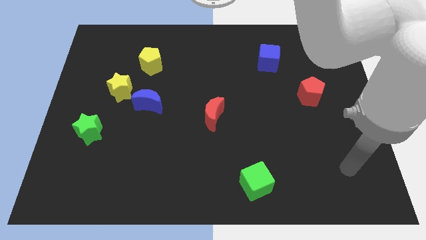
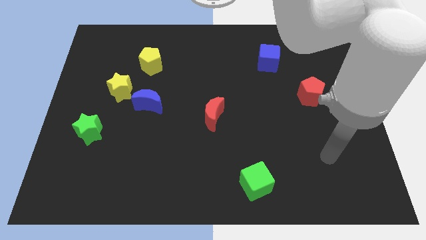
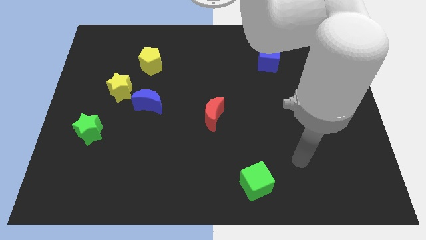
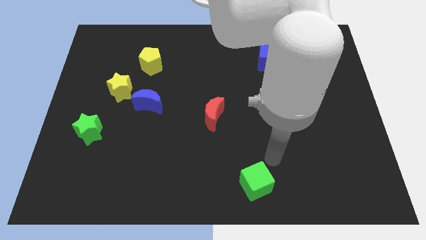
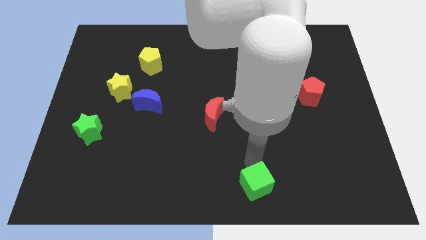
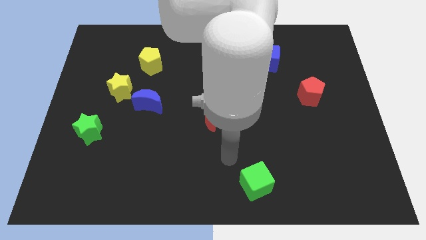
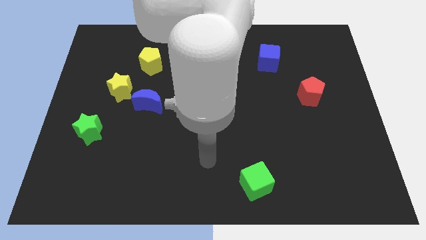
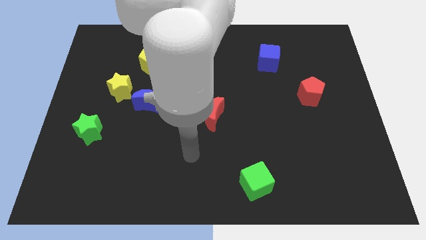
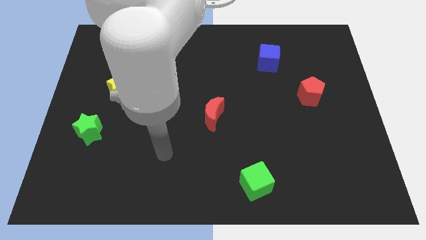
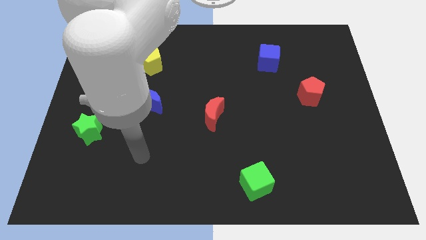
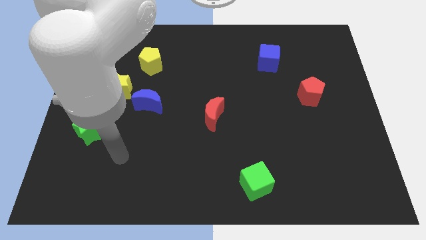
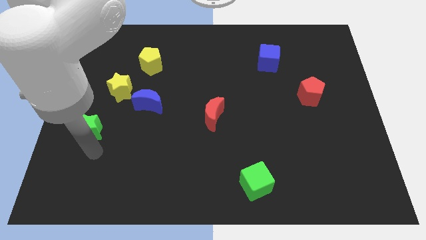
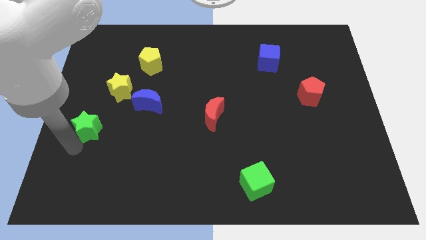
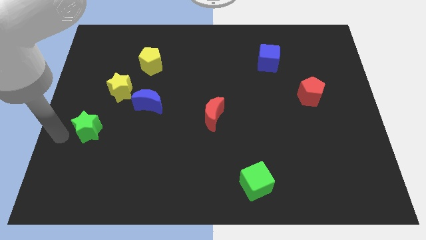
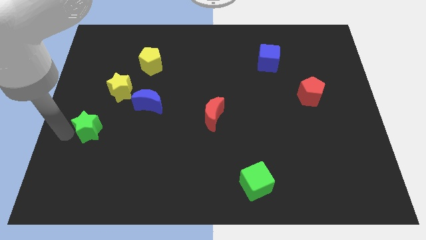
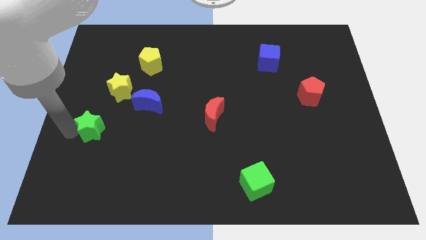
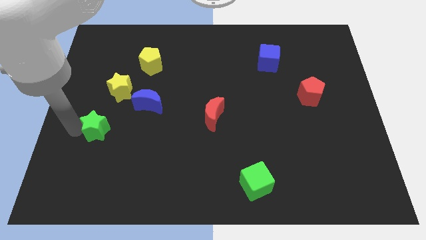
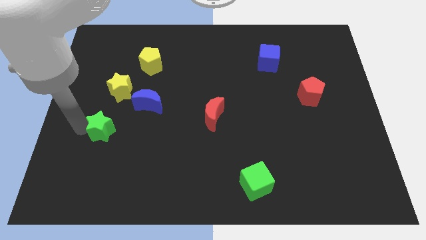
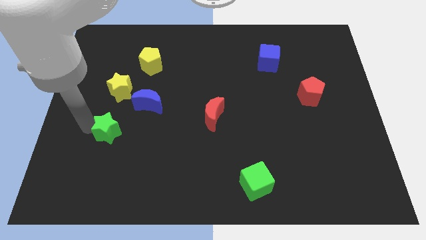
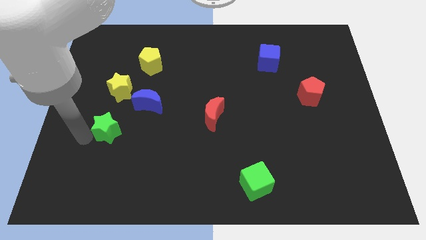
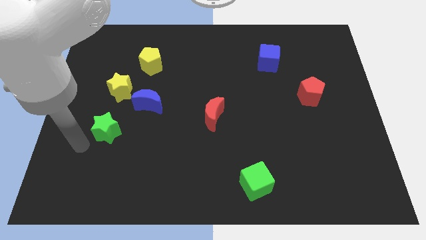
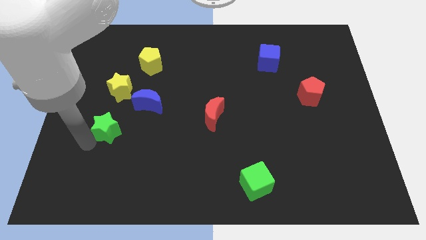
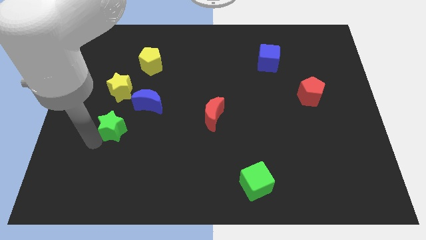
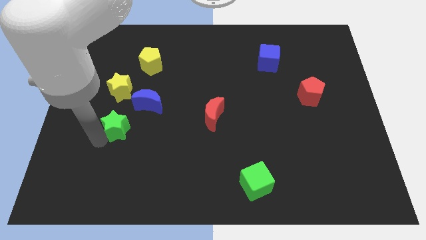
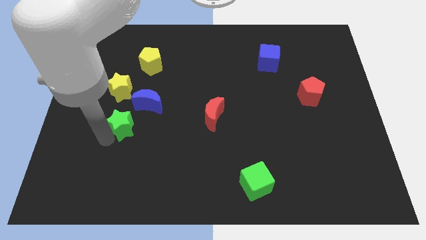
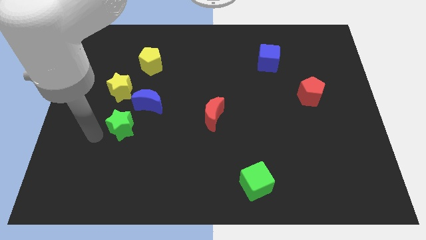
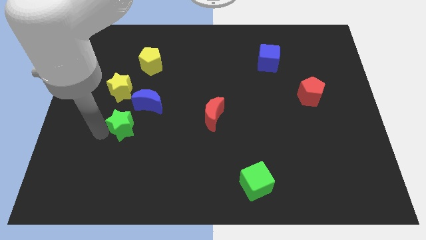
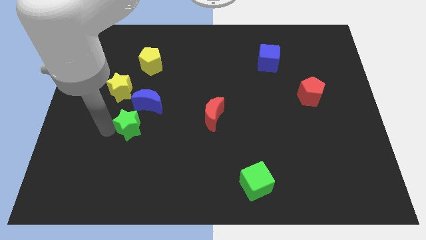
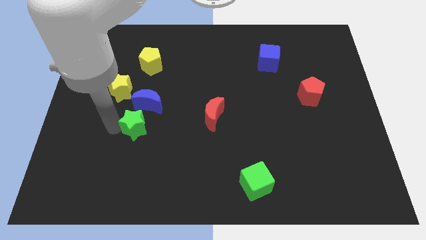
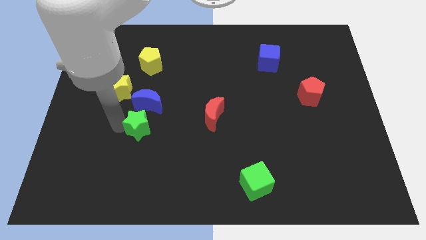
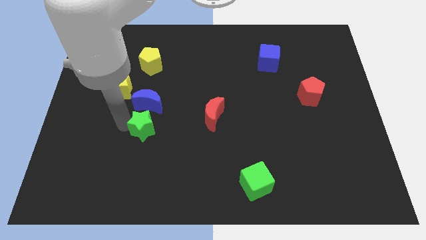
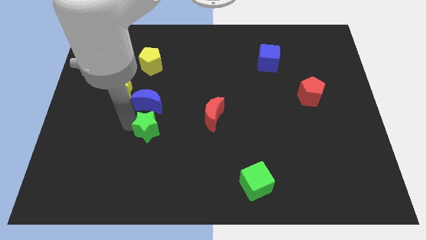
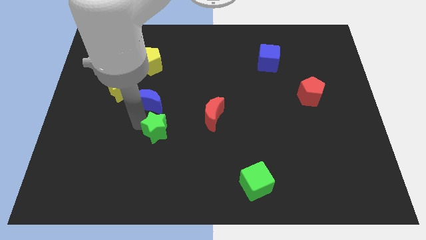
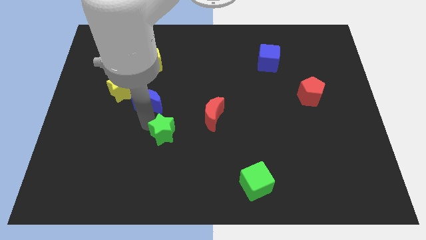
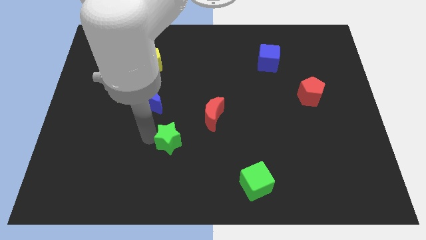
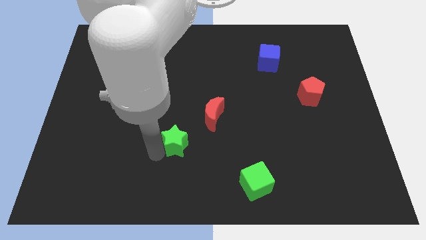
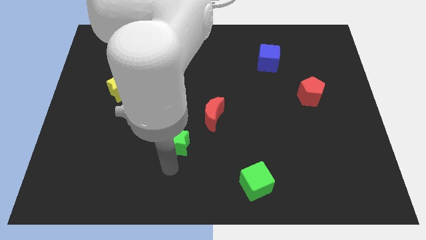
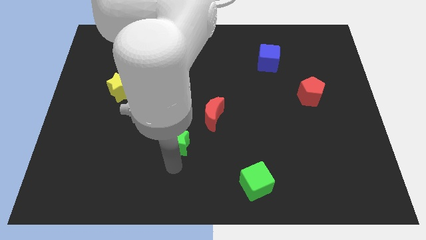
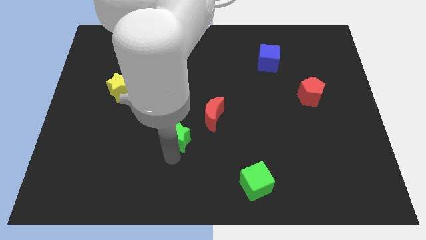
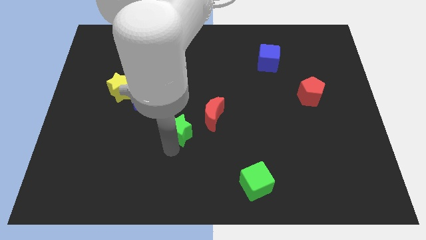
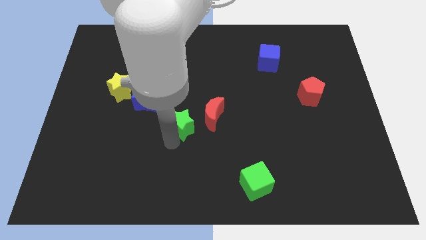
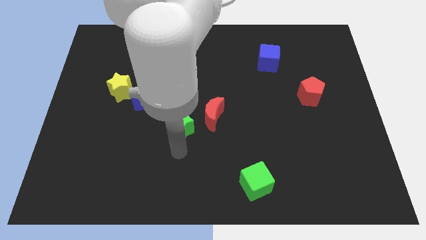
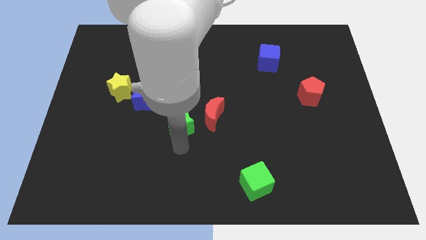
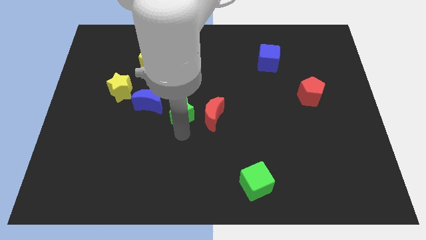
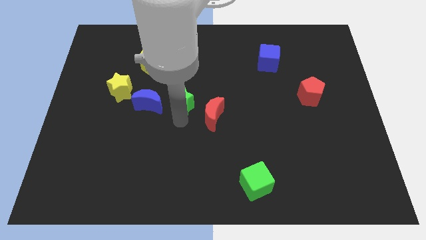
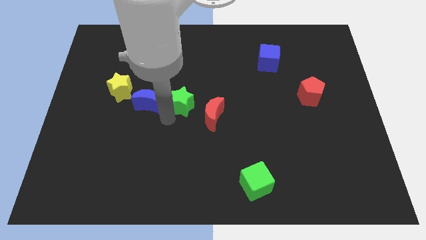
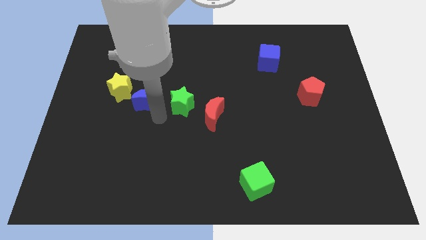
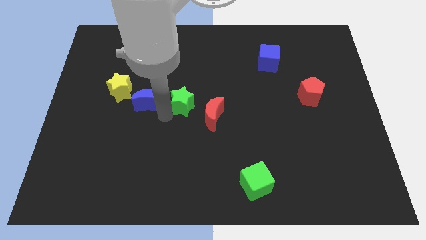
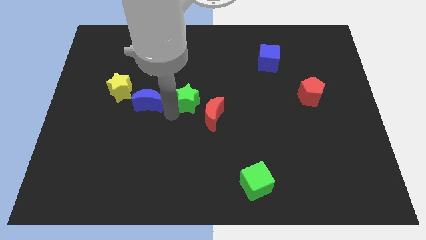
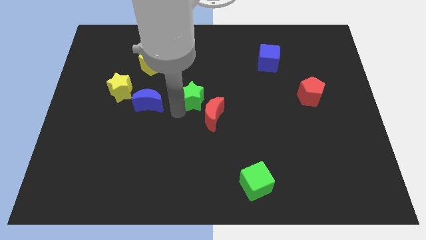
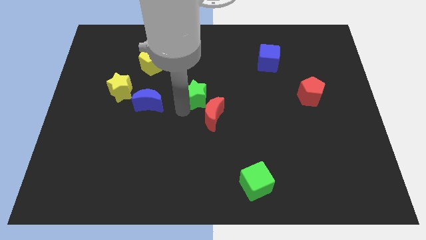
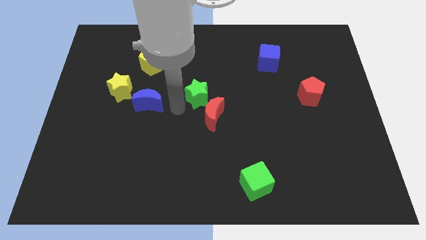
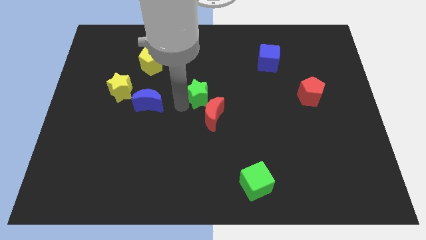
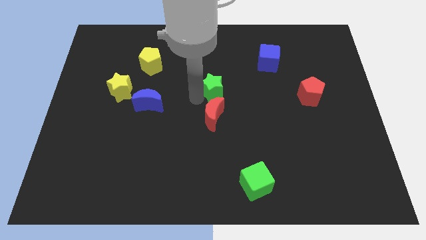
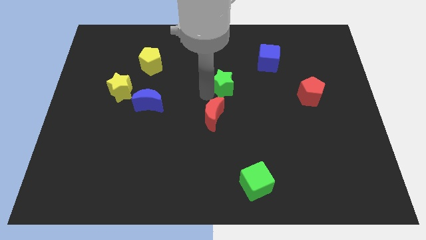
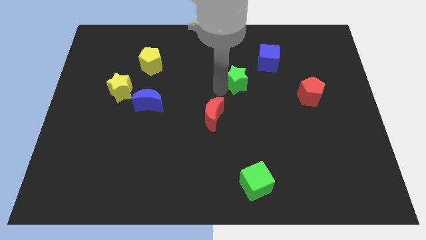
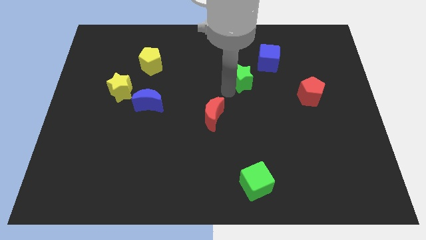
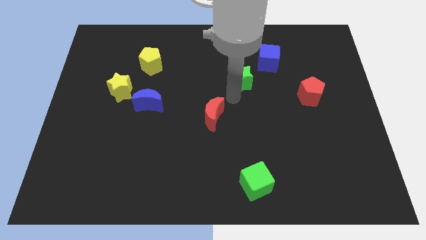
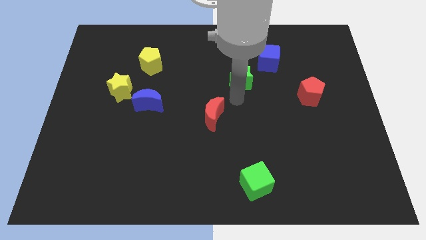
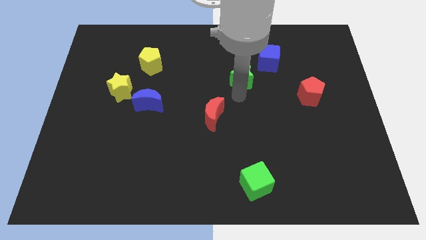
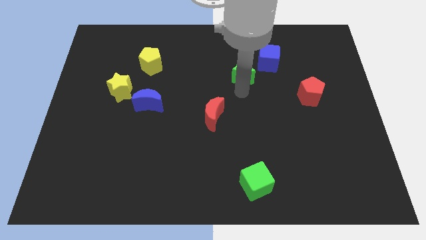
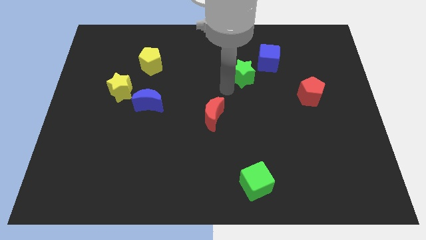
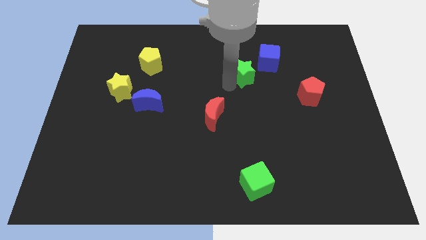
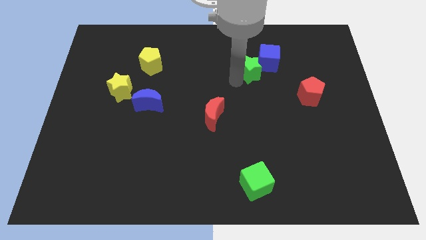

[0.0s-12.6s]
put the green star to the blue cube

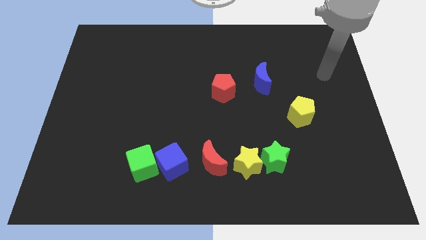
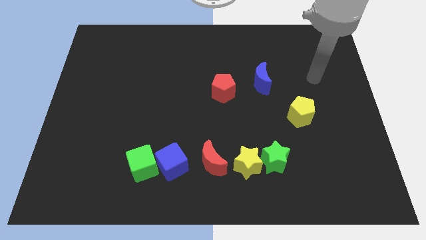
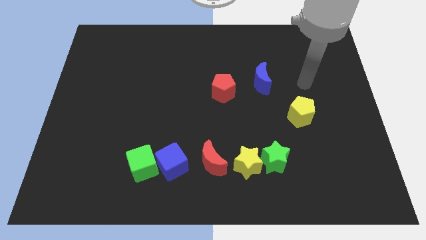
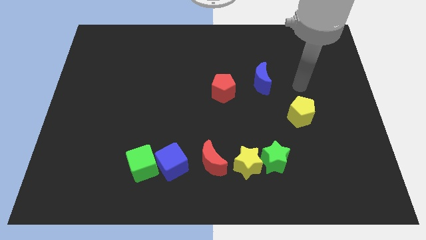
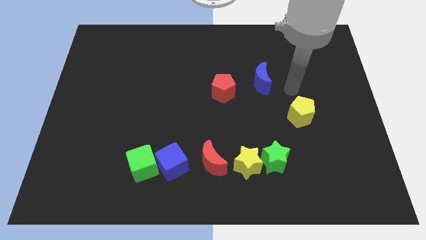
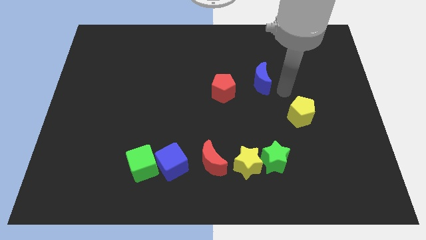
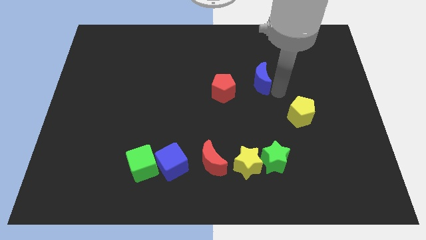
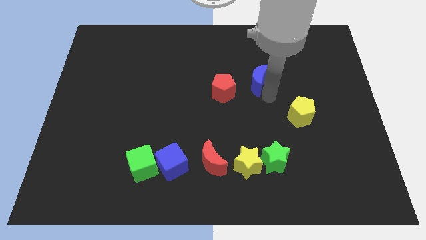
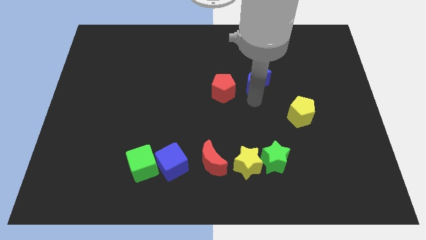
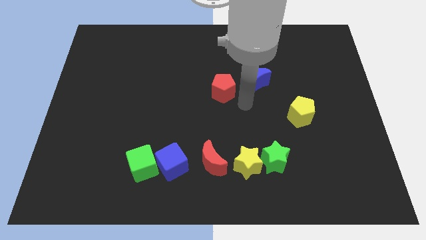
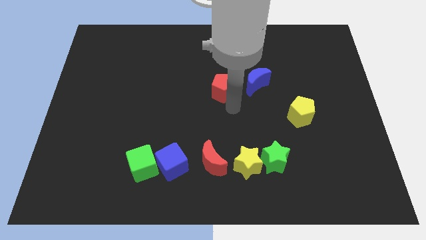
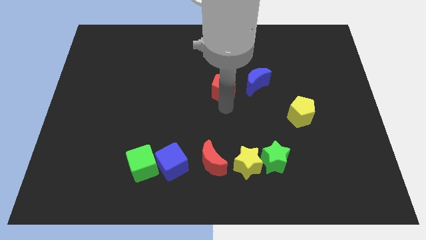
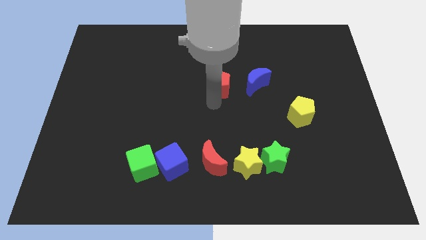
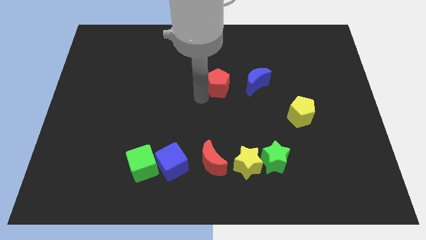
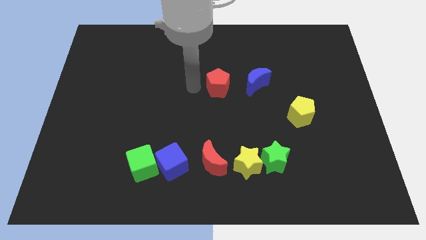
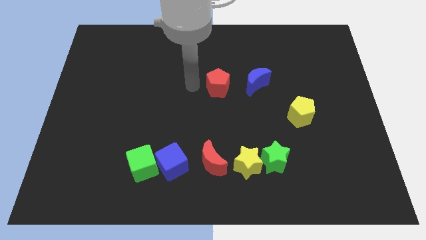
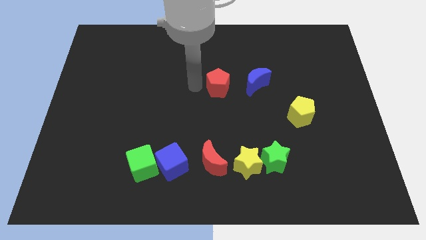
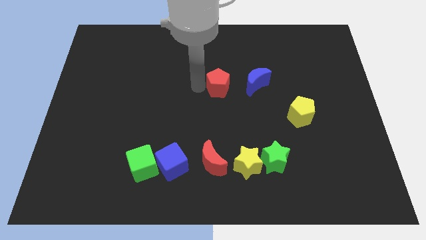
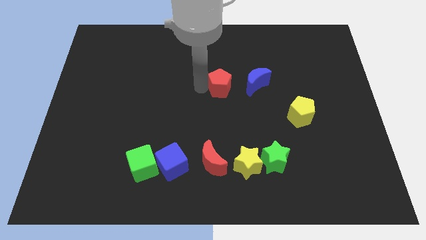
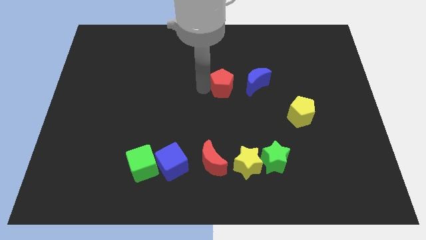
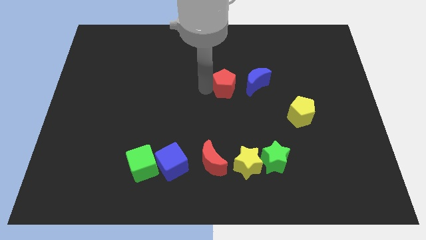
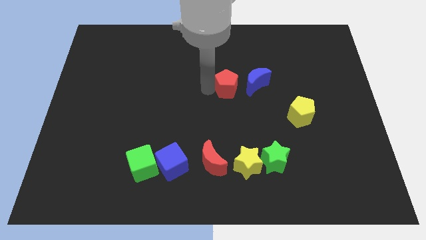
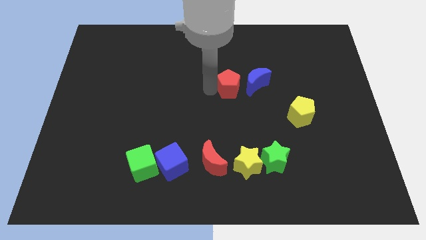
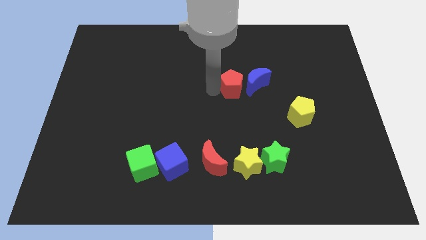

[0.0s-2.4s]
move the red pentagon towards the blue moon
